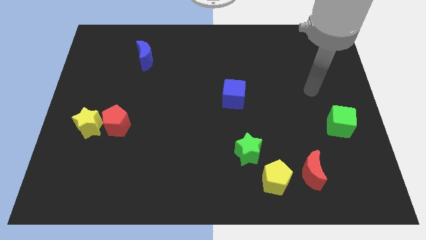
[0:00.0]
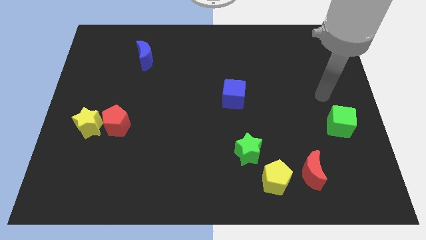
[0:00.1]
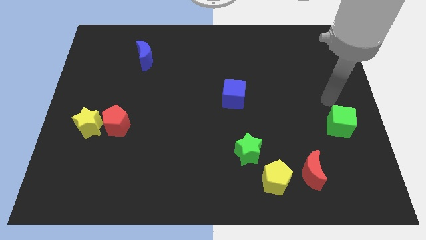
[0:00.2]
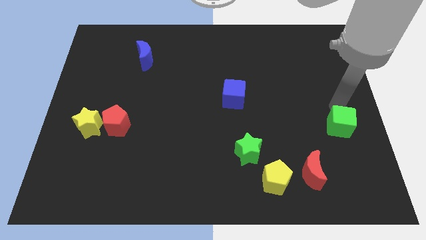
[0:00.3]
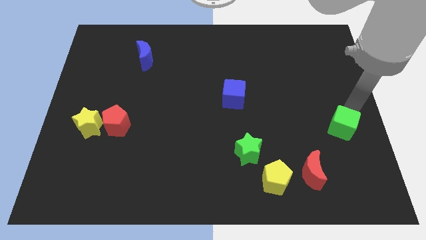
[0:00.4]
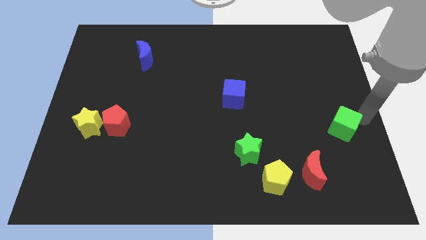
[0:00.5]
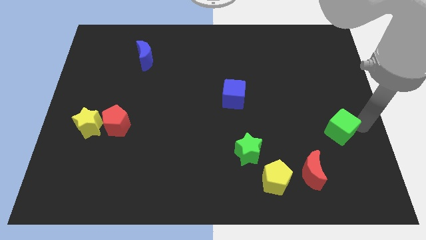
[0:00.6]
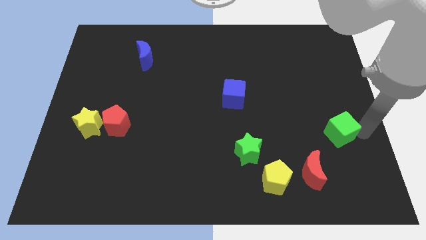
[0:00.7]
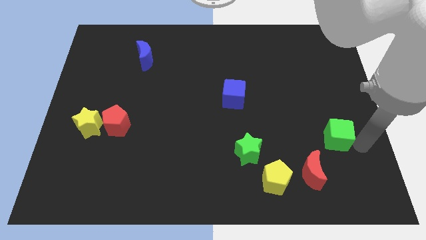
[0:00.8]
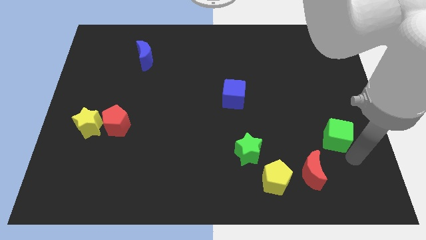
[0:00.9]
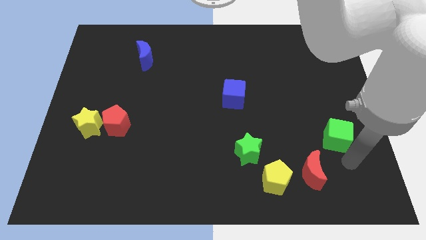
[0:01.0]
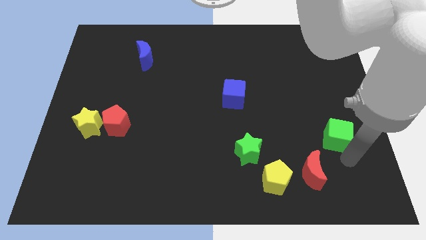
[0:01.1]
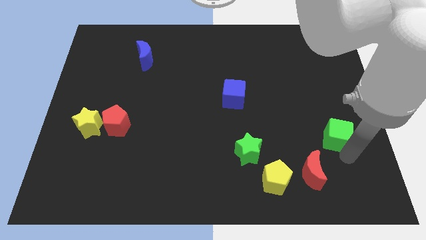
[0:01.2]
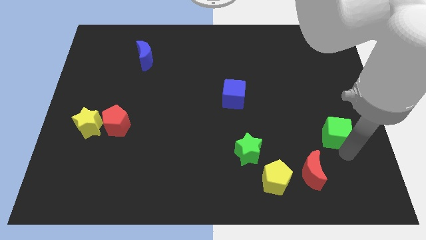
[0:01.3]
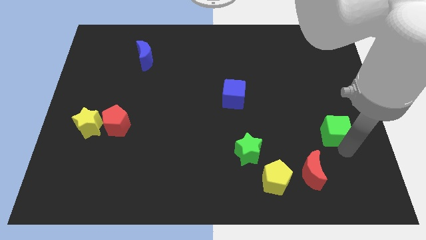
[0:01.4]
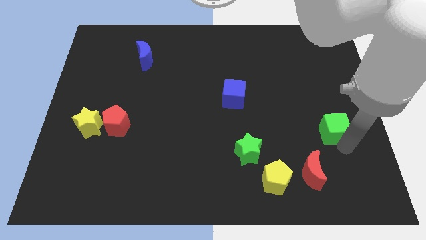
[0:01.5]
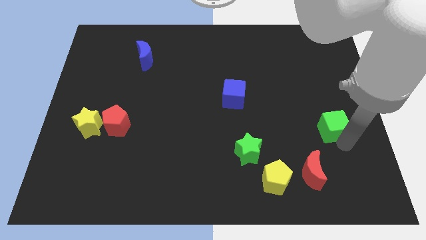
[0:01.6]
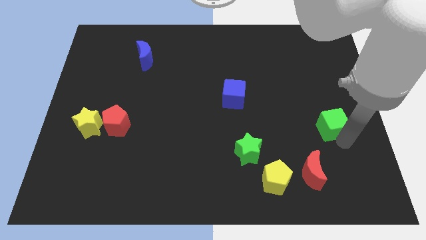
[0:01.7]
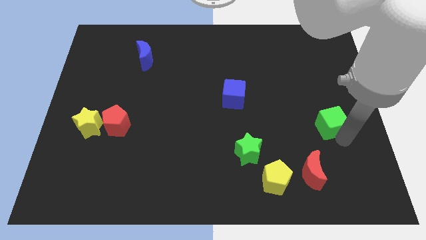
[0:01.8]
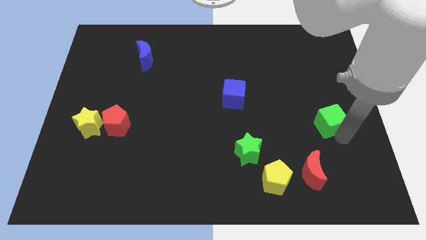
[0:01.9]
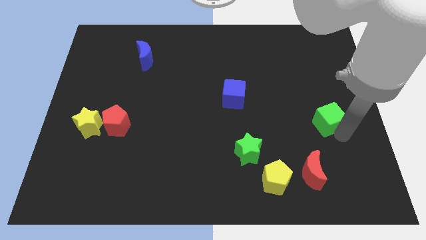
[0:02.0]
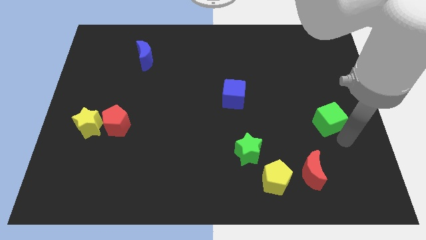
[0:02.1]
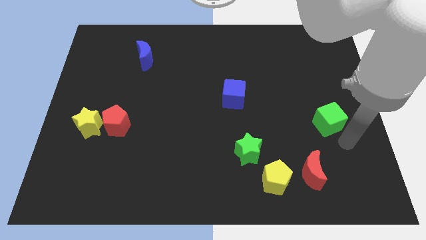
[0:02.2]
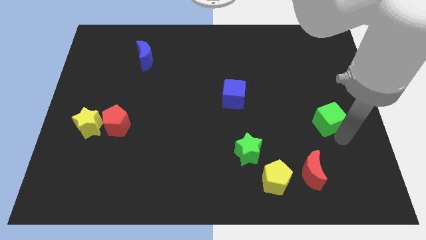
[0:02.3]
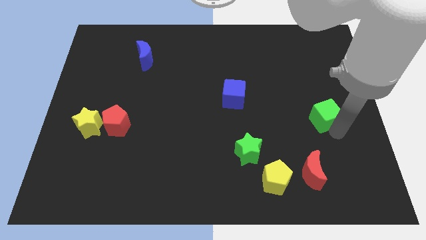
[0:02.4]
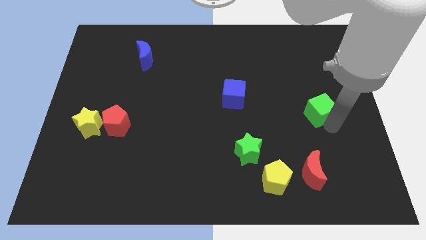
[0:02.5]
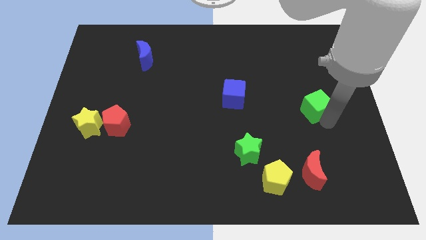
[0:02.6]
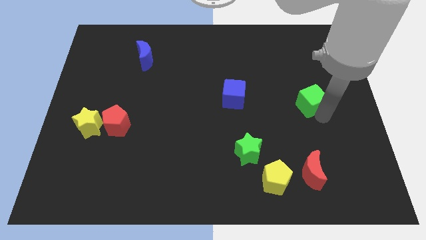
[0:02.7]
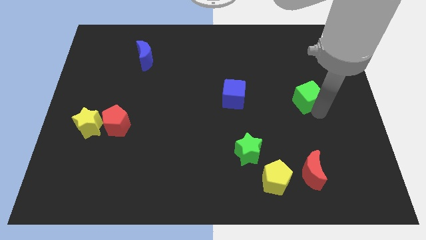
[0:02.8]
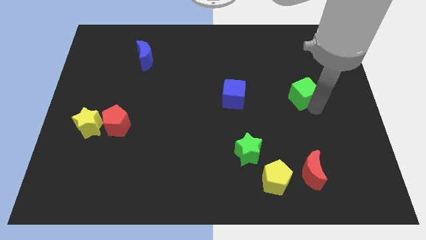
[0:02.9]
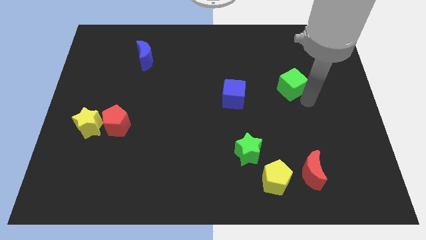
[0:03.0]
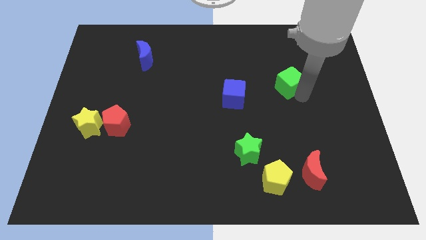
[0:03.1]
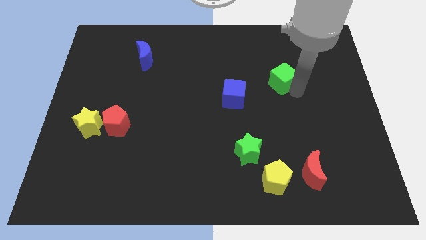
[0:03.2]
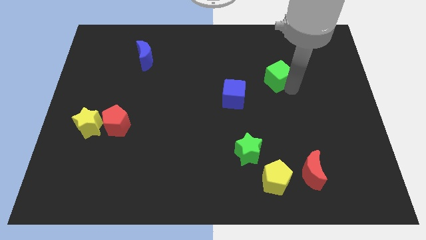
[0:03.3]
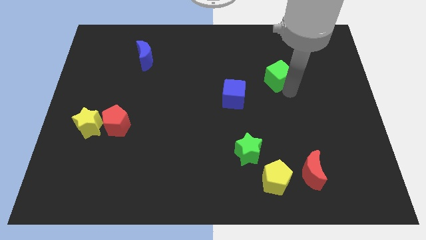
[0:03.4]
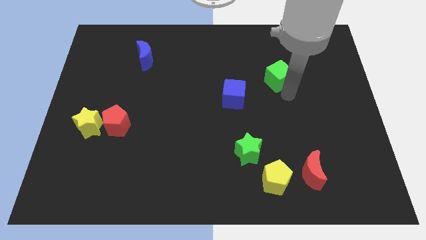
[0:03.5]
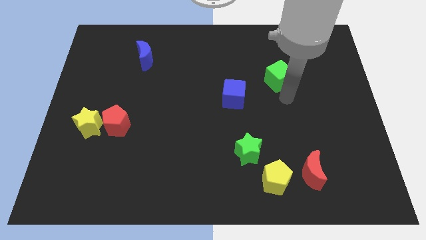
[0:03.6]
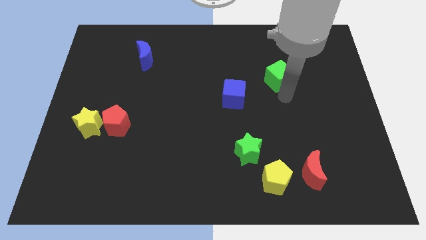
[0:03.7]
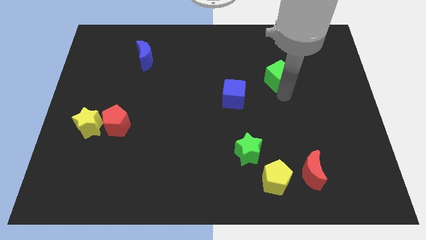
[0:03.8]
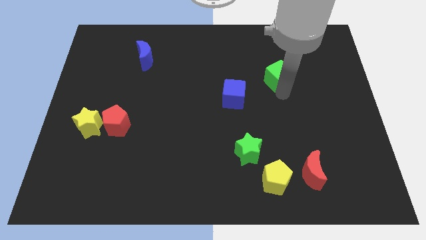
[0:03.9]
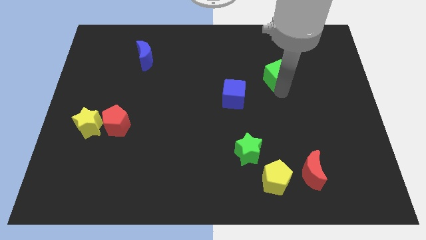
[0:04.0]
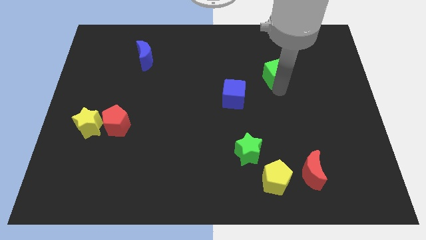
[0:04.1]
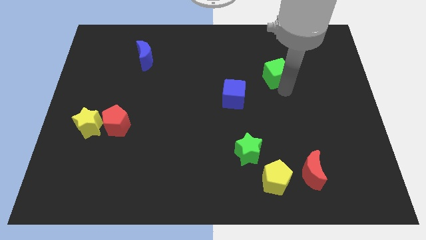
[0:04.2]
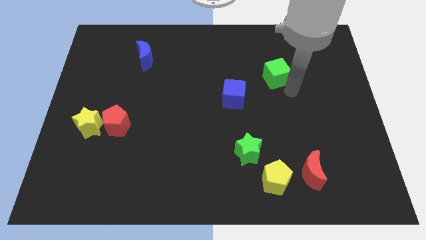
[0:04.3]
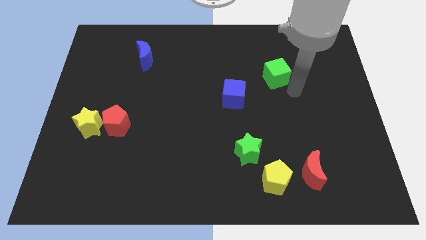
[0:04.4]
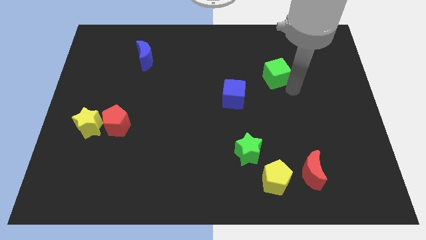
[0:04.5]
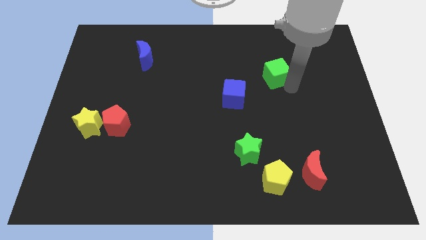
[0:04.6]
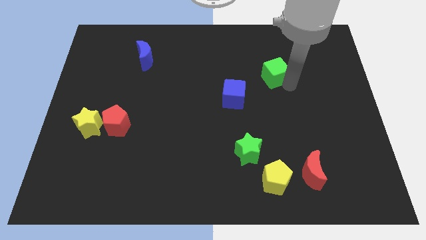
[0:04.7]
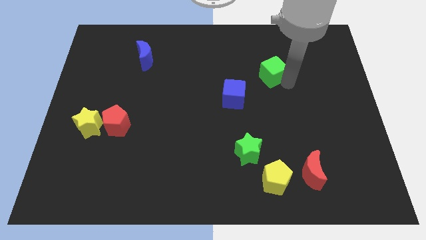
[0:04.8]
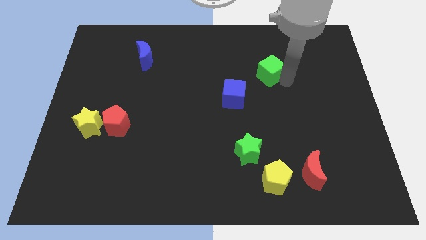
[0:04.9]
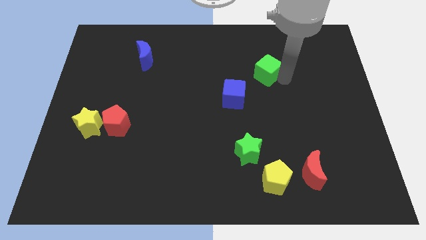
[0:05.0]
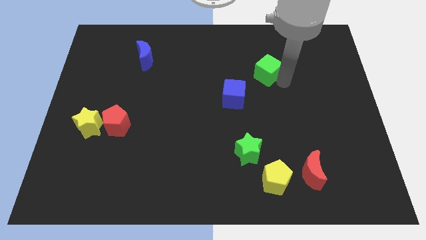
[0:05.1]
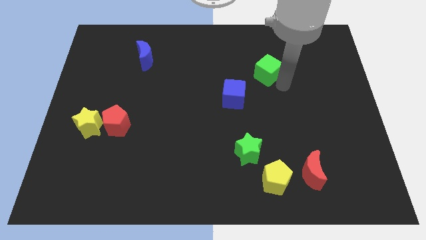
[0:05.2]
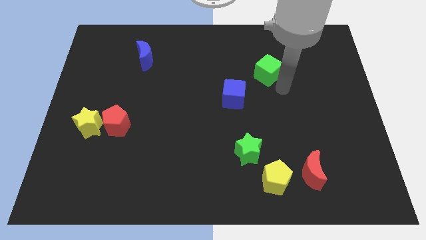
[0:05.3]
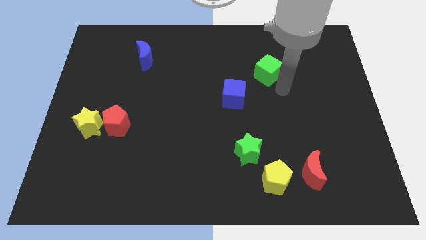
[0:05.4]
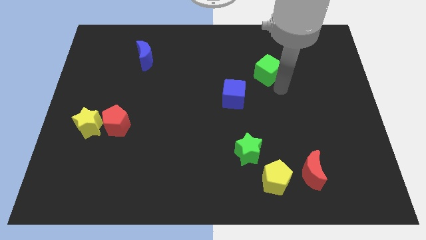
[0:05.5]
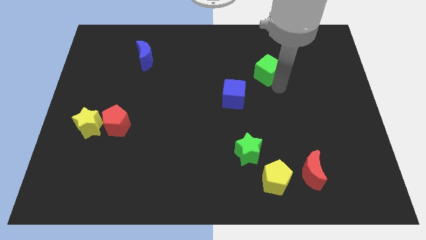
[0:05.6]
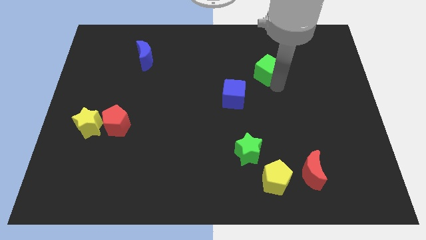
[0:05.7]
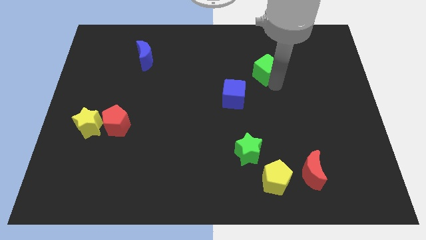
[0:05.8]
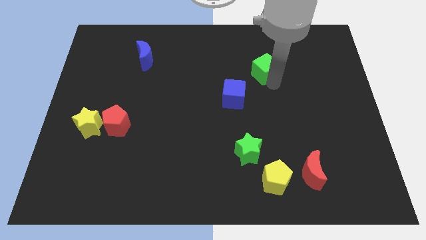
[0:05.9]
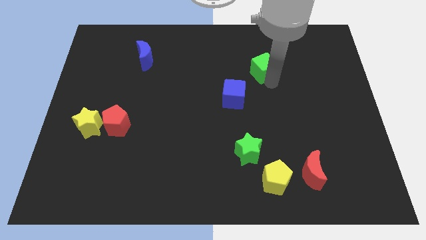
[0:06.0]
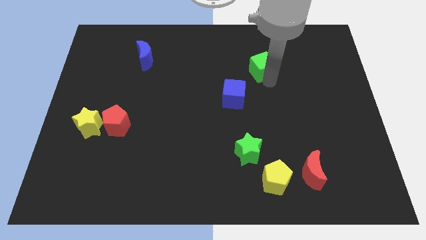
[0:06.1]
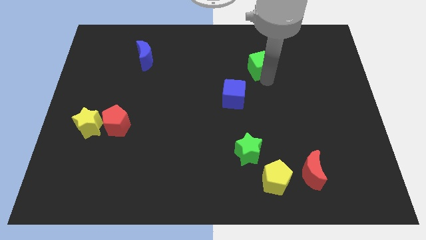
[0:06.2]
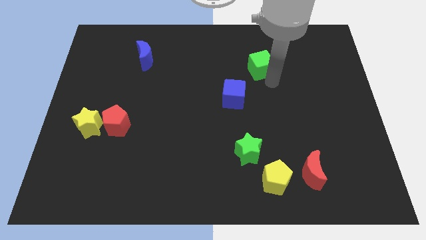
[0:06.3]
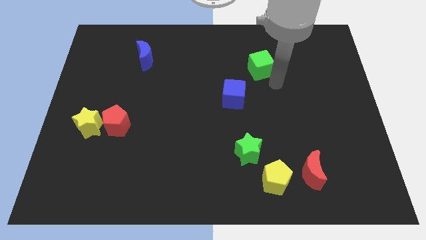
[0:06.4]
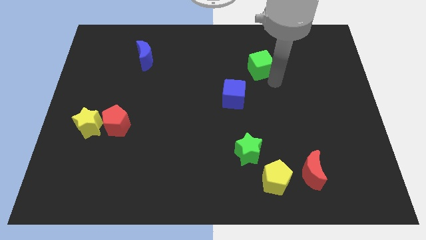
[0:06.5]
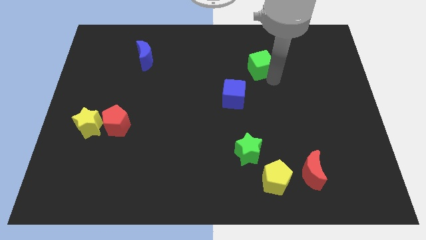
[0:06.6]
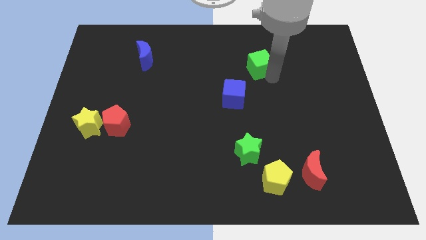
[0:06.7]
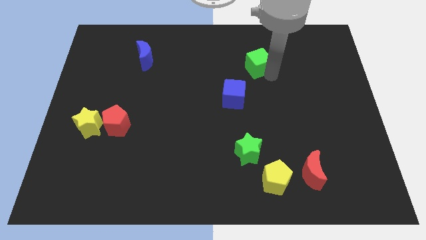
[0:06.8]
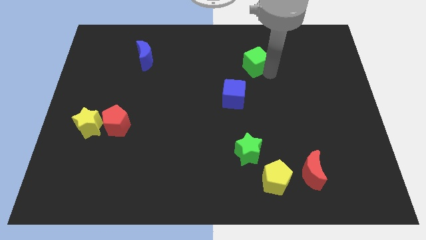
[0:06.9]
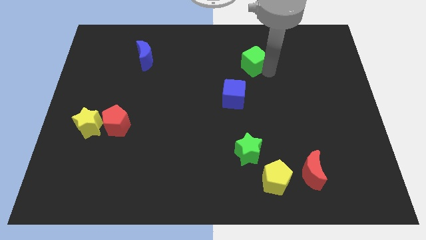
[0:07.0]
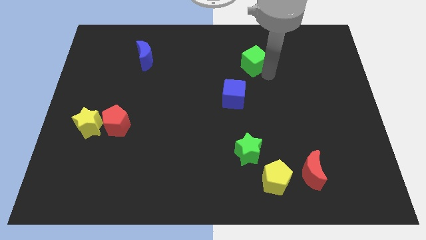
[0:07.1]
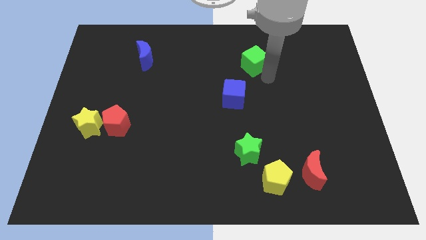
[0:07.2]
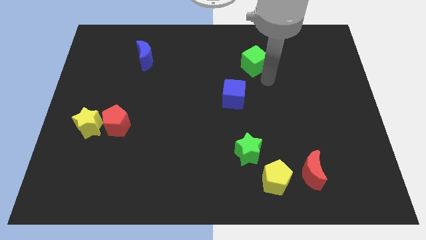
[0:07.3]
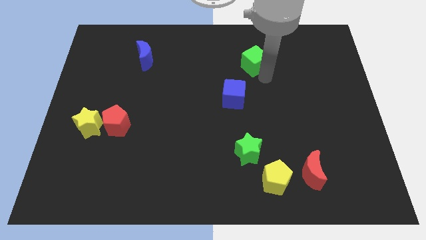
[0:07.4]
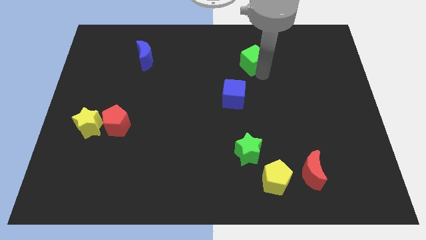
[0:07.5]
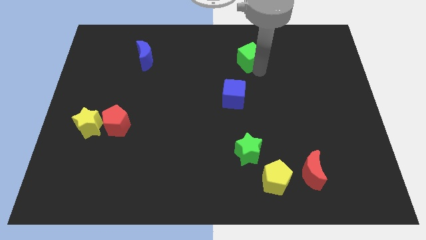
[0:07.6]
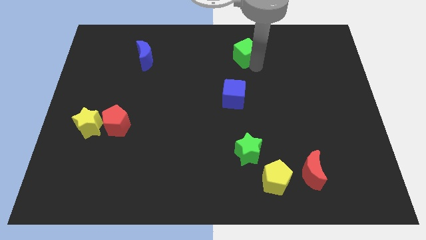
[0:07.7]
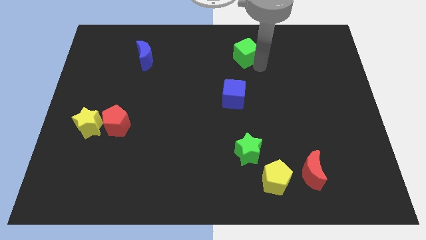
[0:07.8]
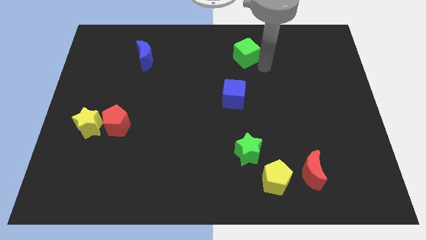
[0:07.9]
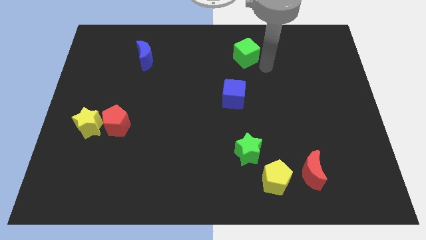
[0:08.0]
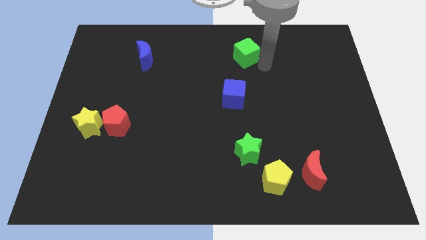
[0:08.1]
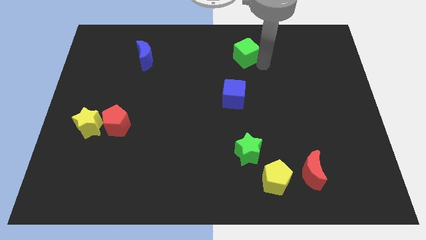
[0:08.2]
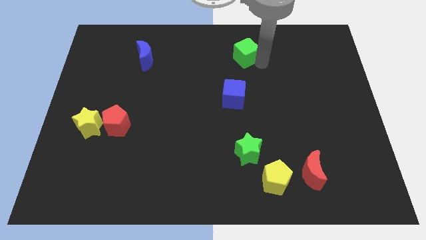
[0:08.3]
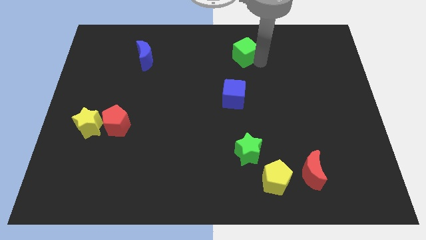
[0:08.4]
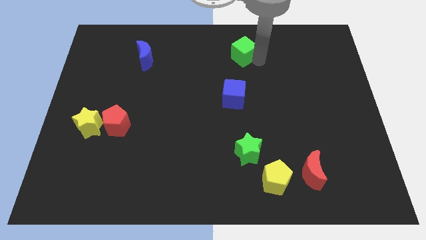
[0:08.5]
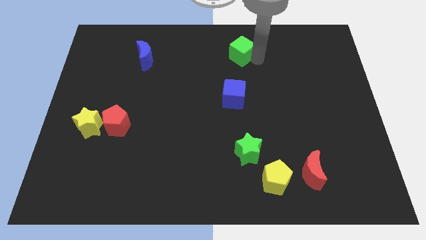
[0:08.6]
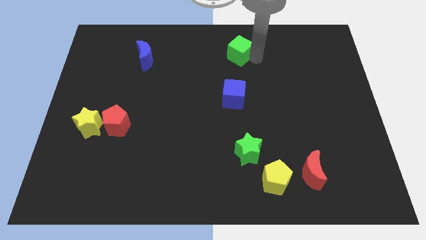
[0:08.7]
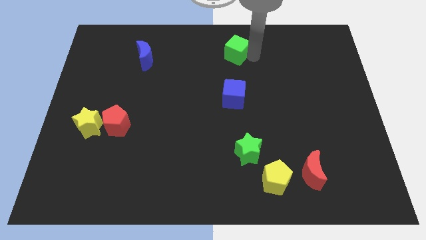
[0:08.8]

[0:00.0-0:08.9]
move the green cube to the top
